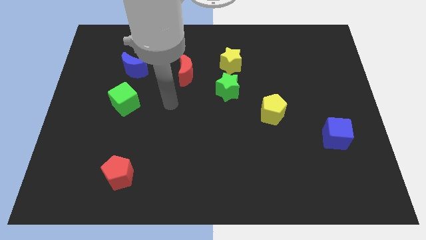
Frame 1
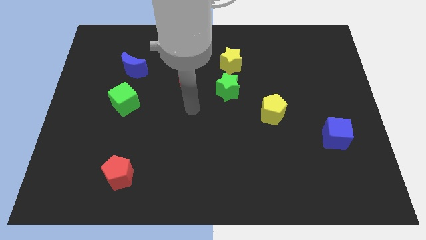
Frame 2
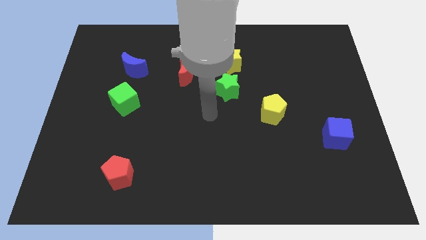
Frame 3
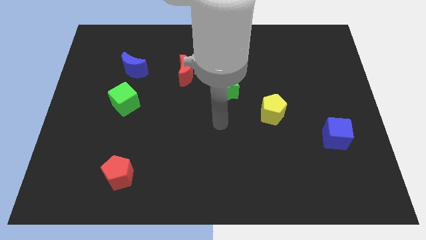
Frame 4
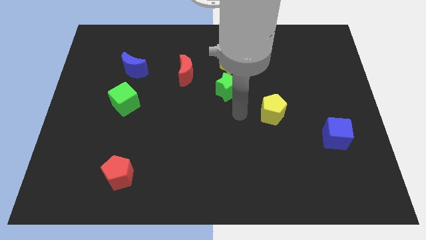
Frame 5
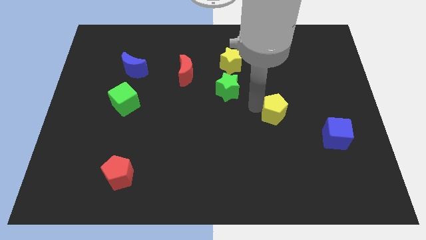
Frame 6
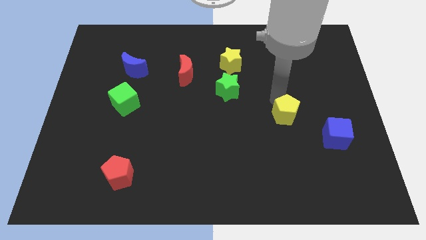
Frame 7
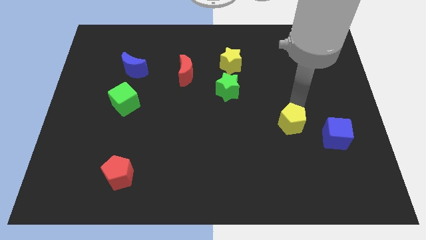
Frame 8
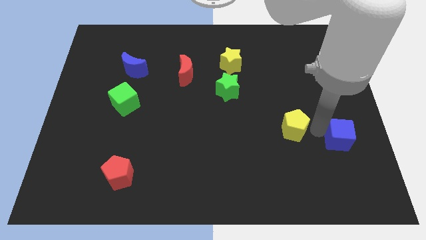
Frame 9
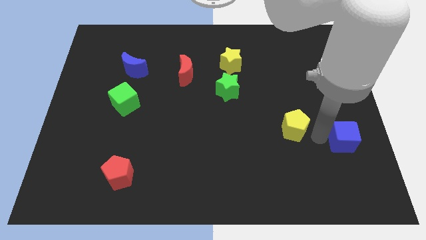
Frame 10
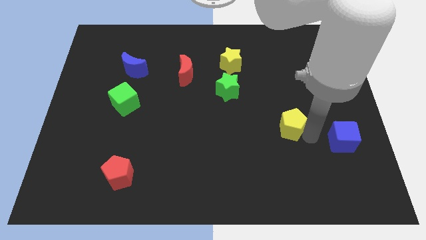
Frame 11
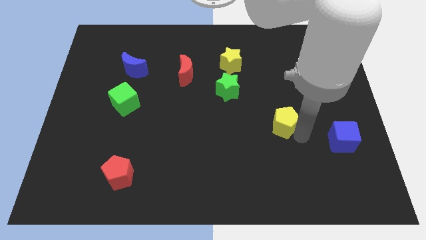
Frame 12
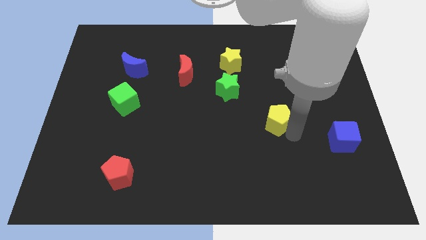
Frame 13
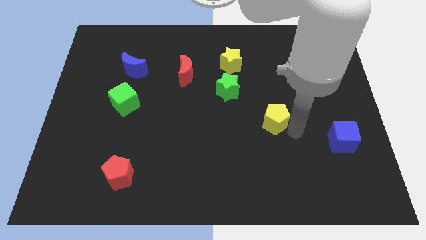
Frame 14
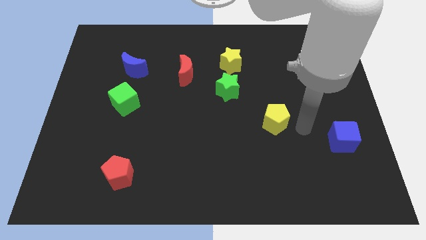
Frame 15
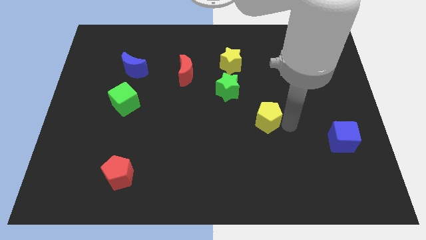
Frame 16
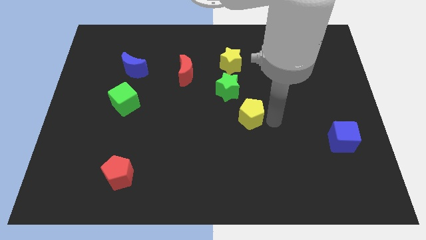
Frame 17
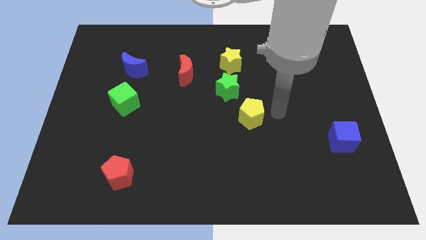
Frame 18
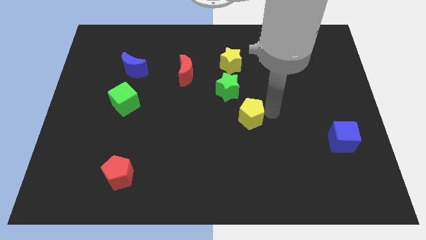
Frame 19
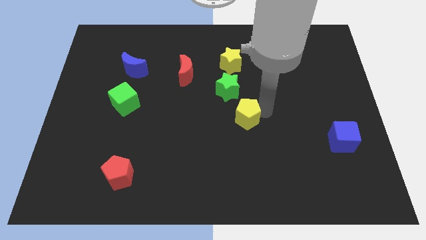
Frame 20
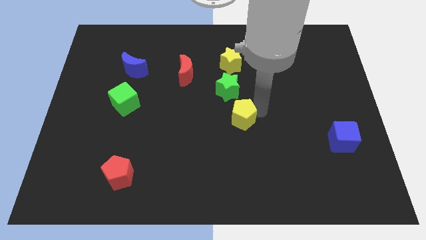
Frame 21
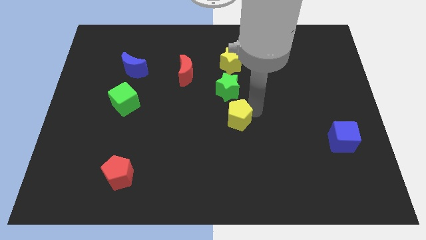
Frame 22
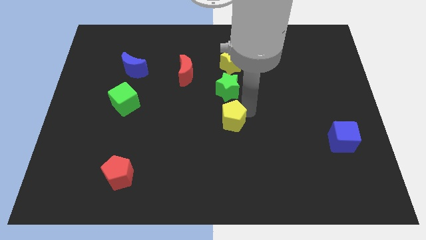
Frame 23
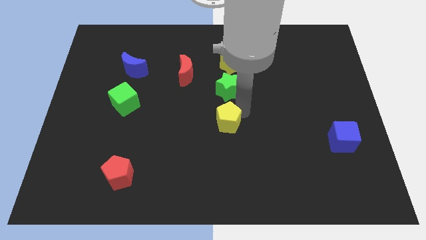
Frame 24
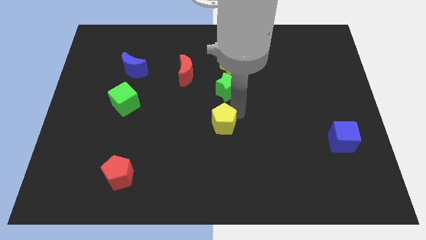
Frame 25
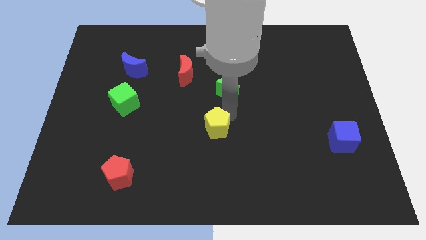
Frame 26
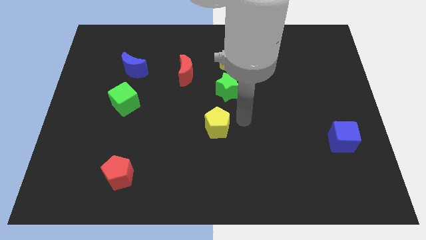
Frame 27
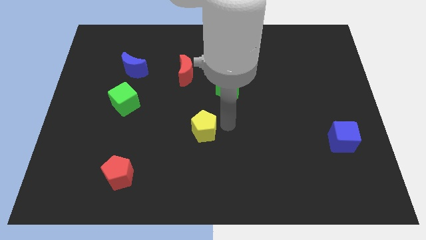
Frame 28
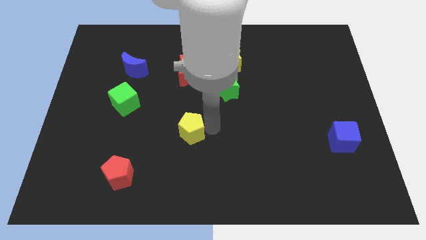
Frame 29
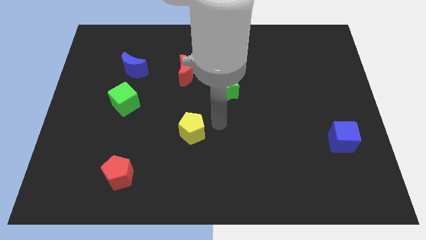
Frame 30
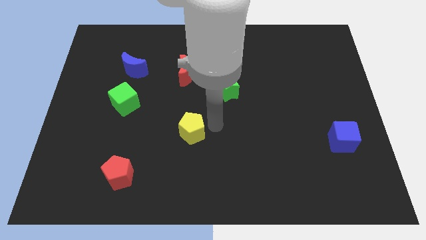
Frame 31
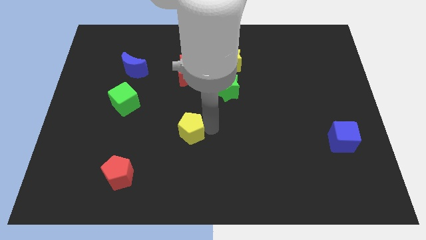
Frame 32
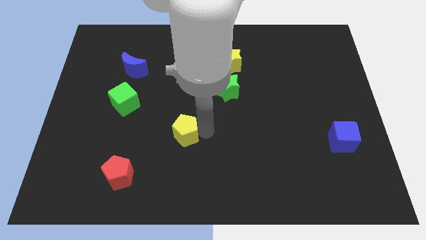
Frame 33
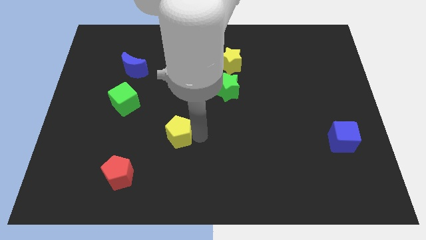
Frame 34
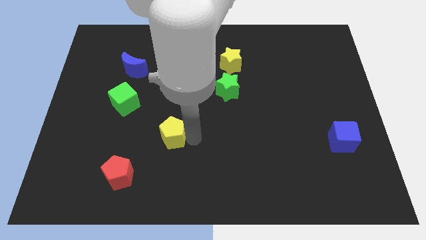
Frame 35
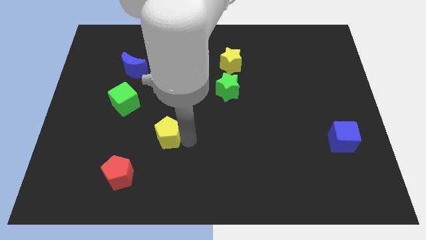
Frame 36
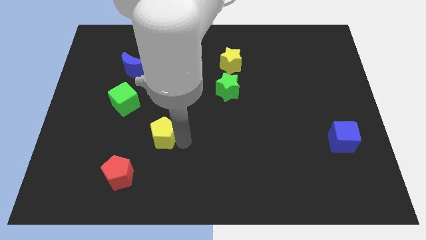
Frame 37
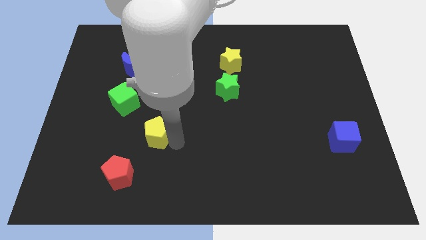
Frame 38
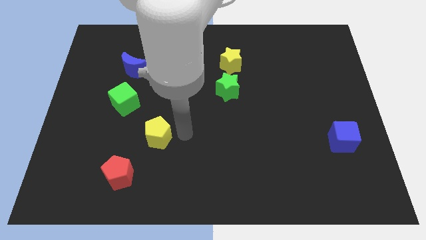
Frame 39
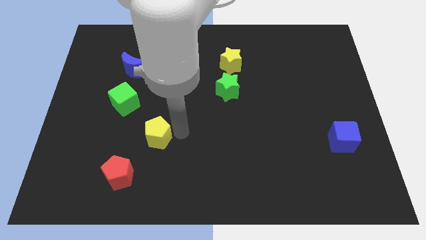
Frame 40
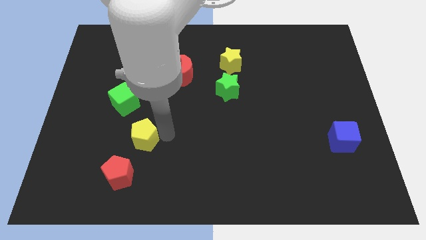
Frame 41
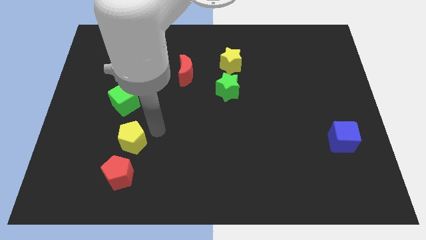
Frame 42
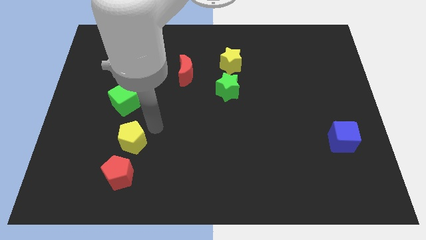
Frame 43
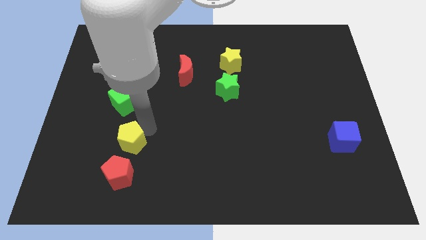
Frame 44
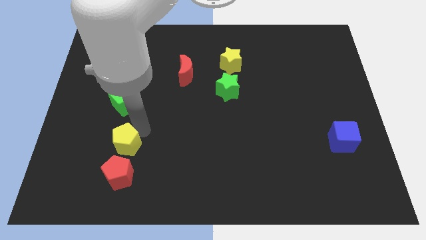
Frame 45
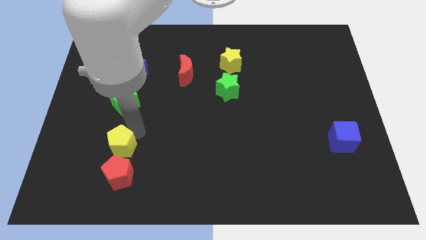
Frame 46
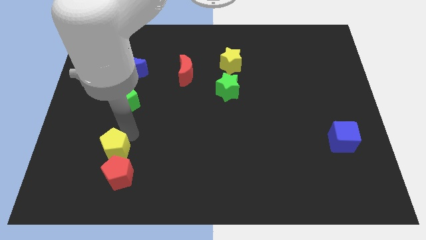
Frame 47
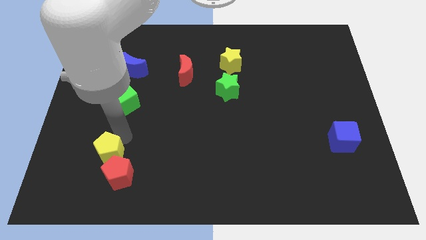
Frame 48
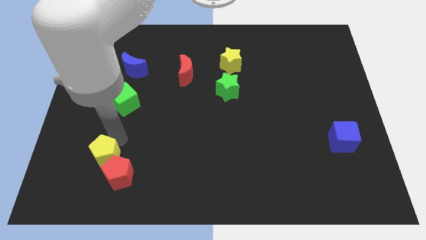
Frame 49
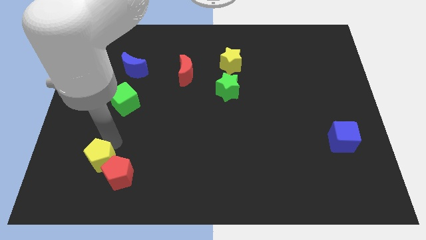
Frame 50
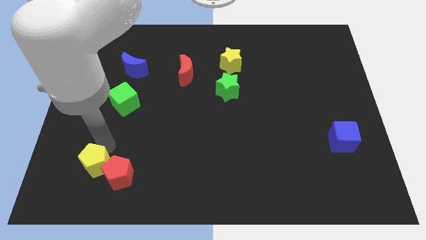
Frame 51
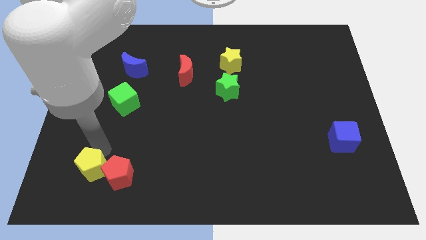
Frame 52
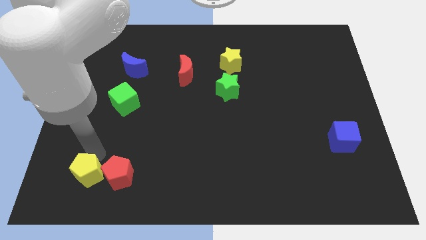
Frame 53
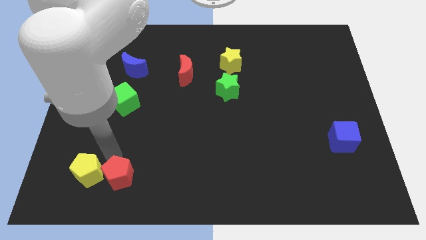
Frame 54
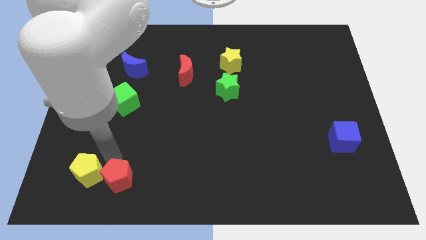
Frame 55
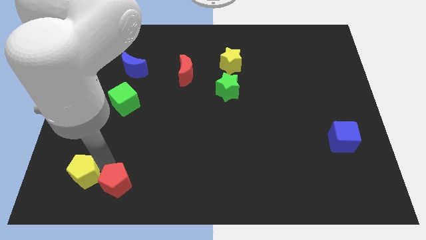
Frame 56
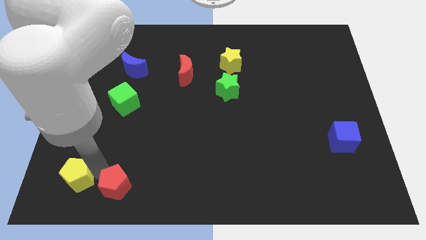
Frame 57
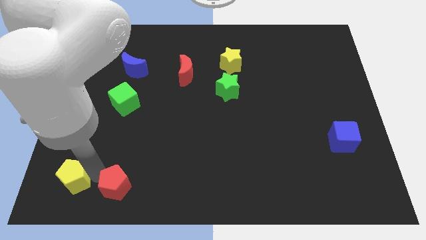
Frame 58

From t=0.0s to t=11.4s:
move the yellow pentagon to the lower left corner
